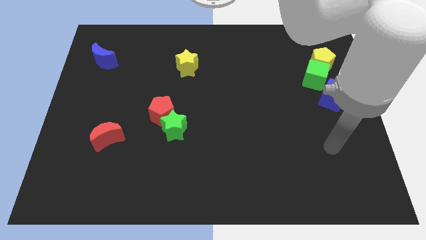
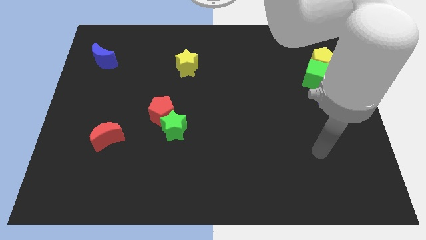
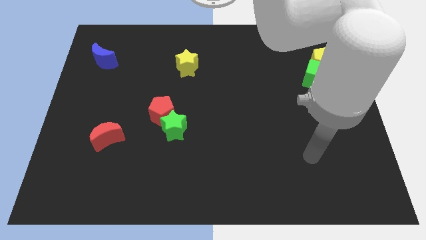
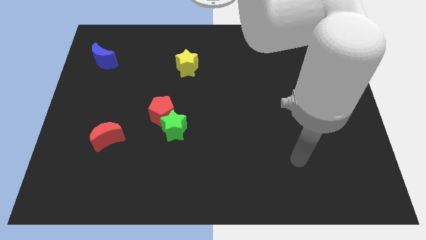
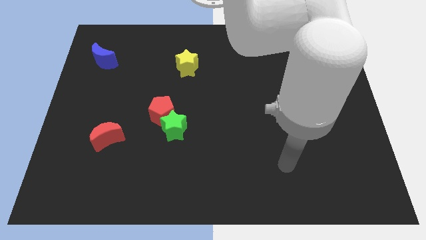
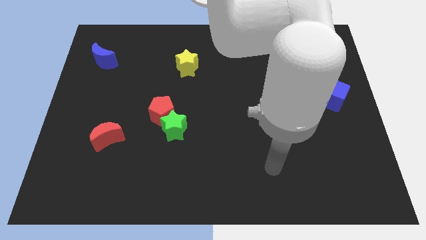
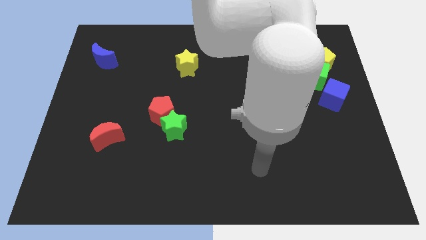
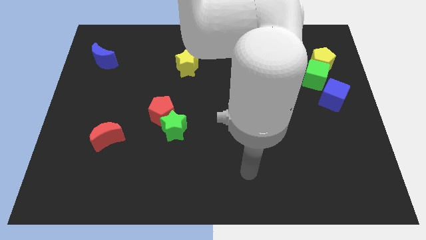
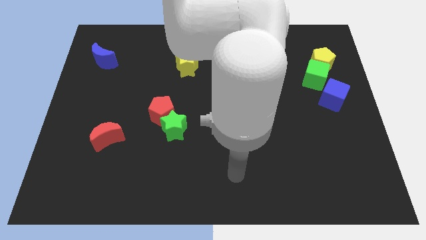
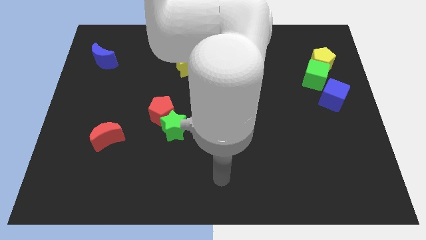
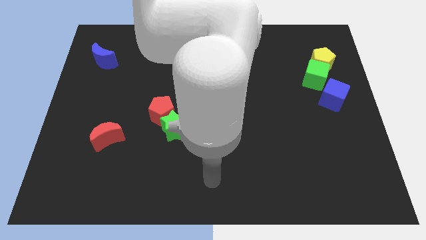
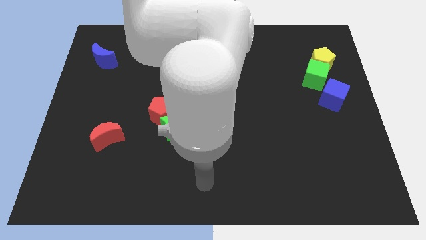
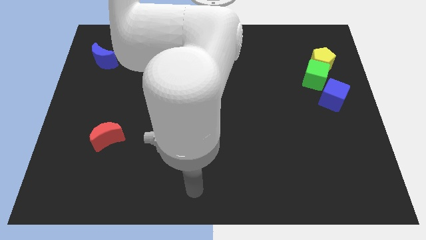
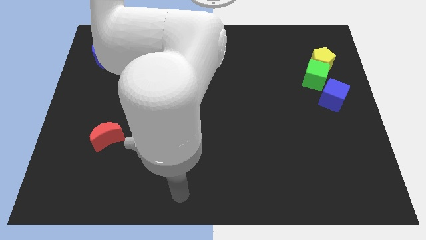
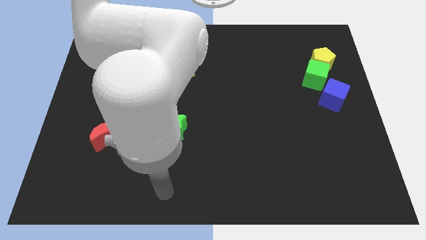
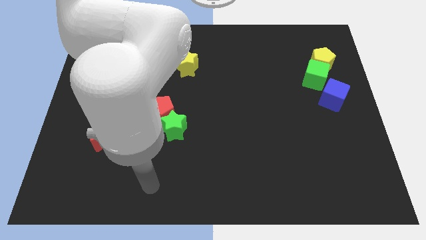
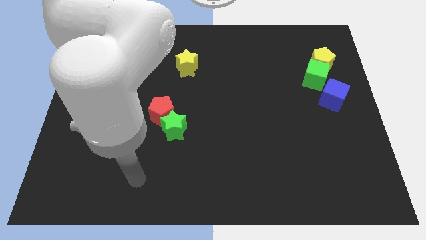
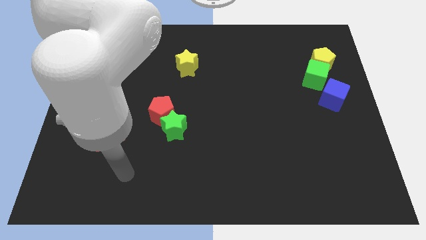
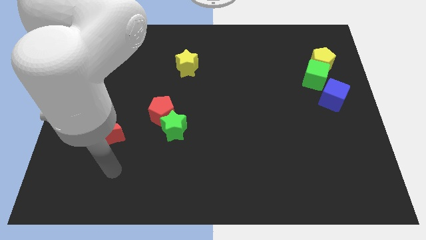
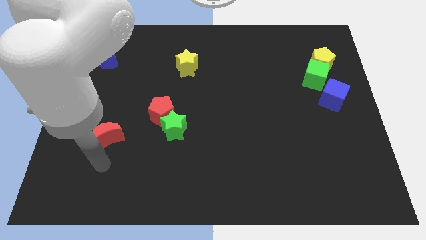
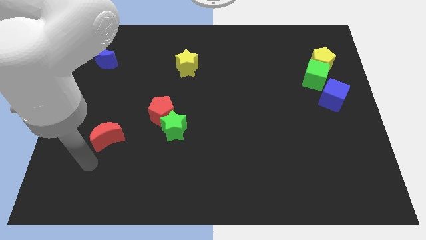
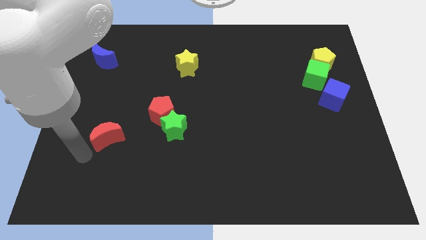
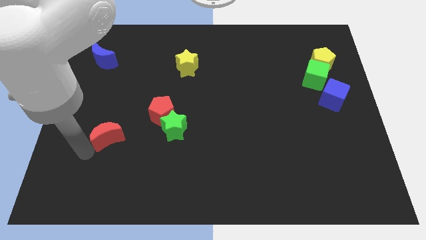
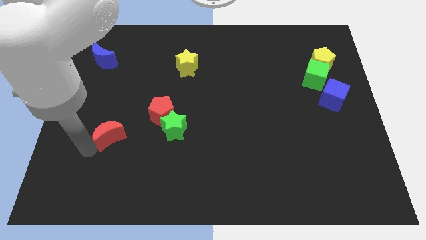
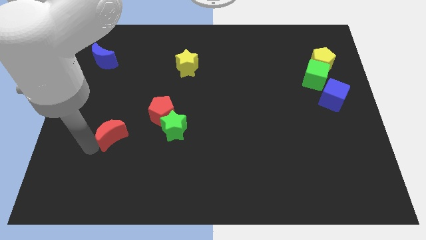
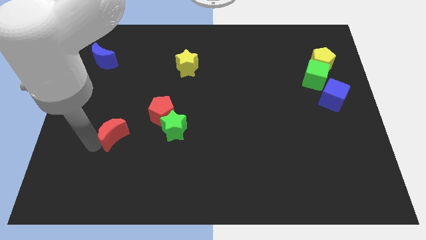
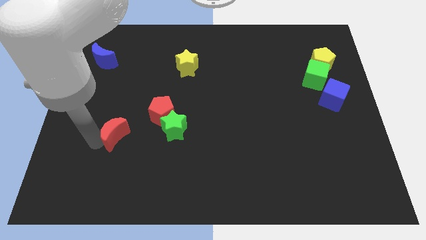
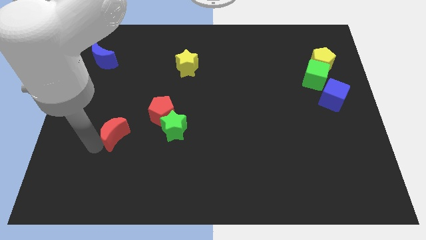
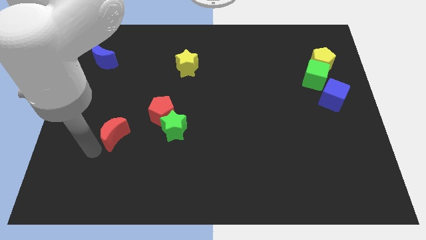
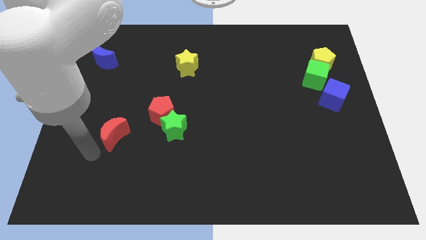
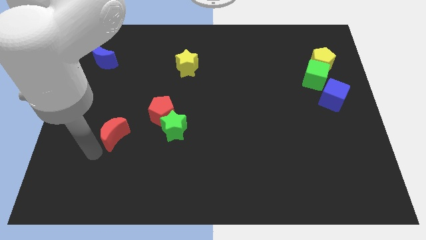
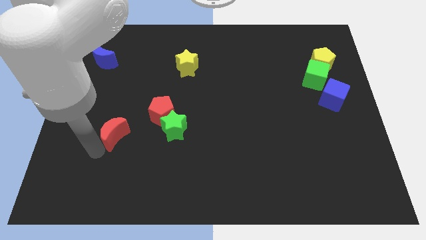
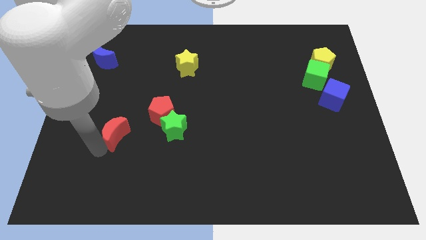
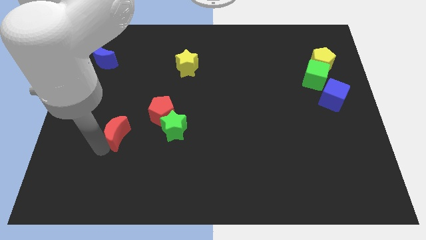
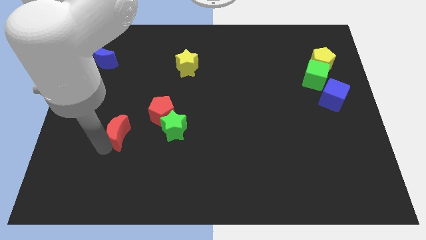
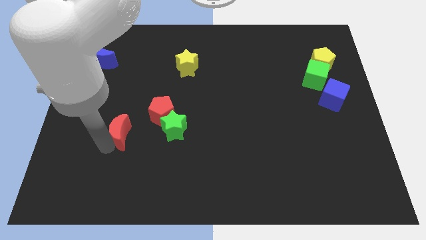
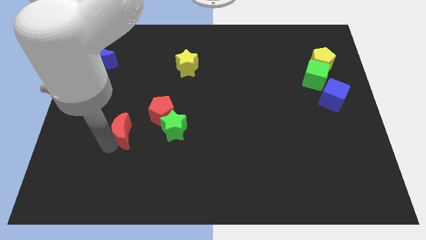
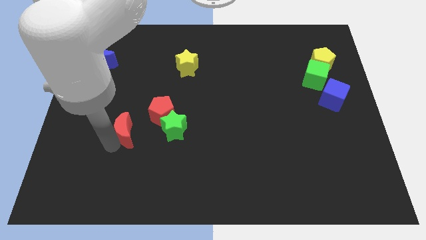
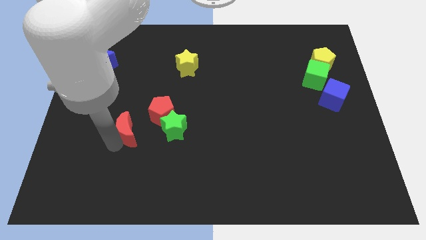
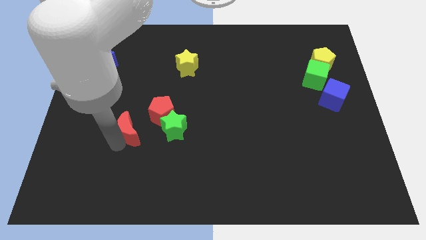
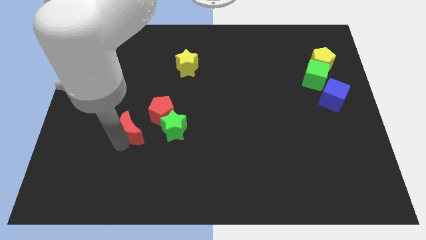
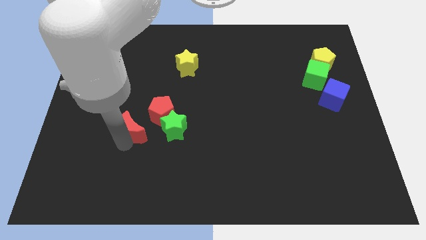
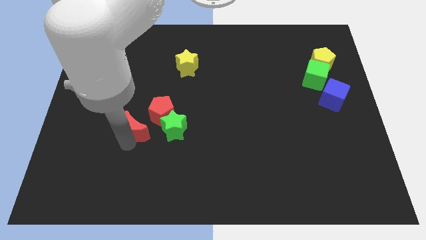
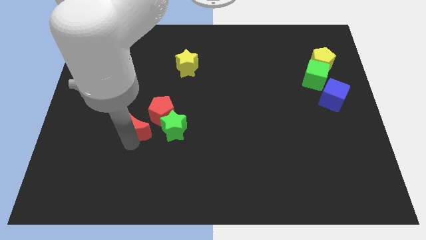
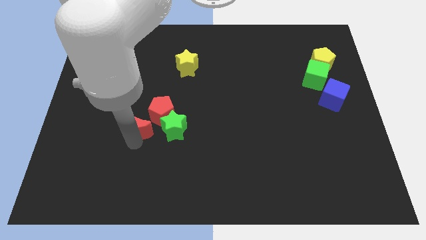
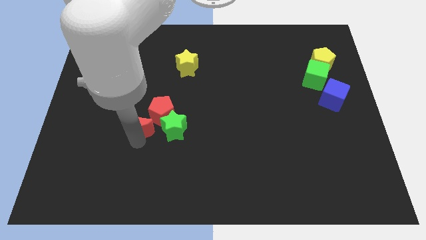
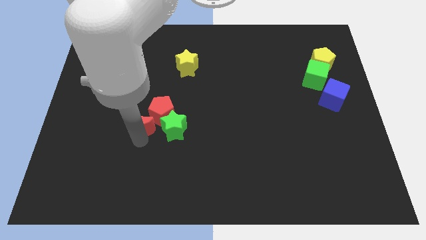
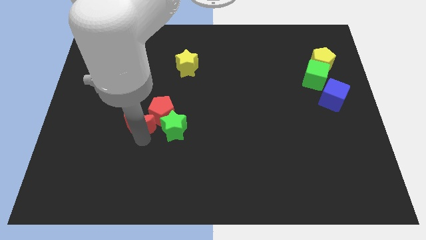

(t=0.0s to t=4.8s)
slide the red moon up and then to the right a little bit

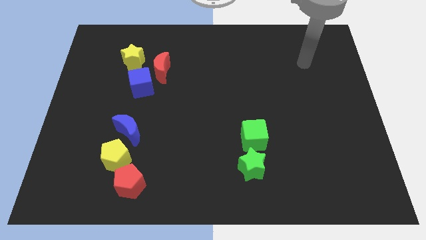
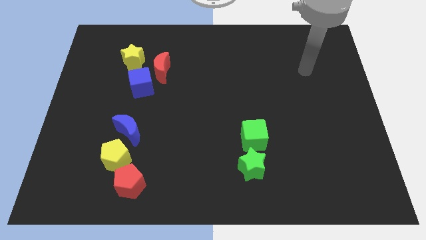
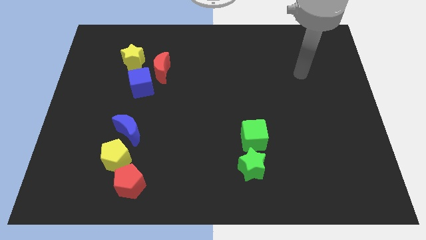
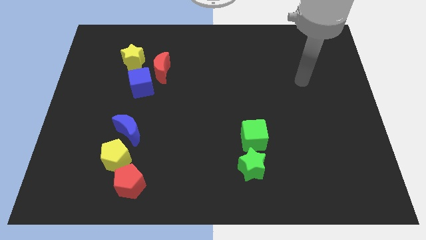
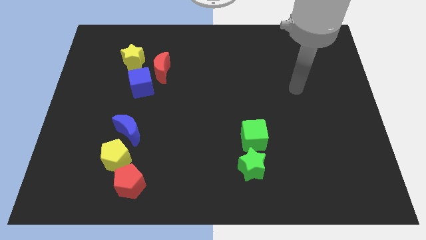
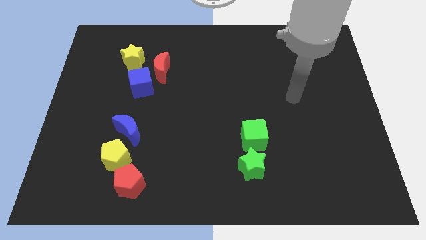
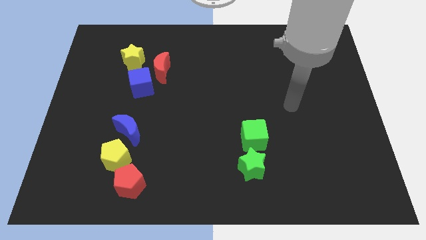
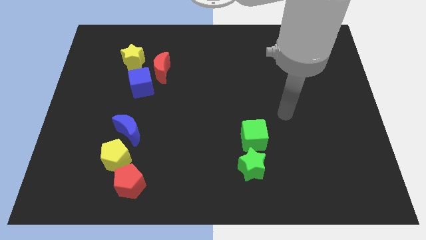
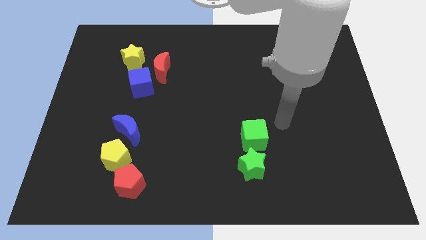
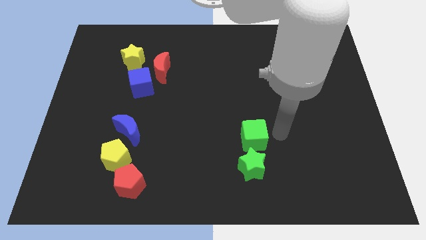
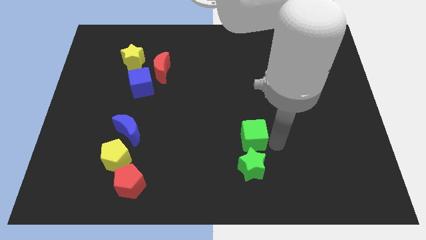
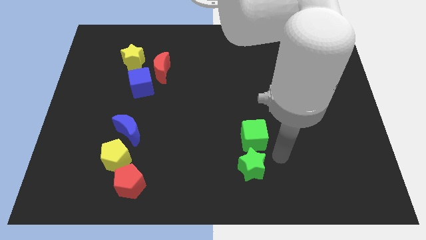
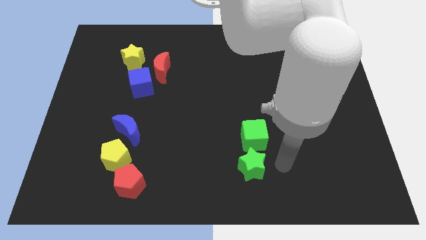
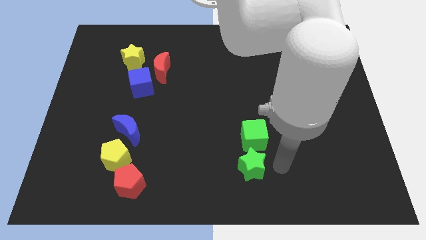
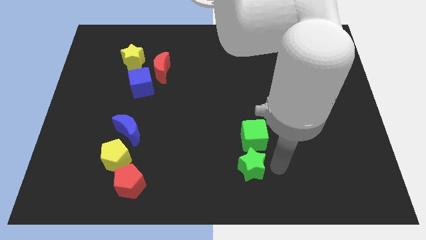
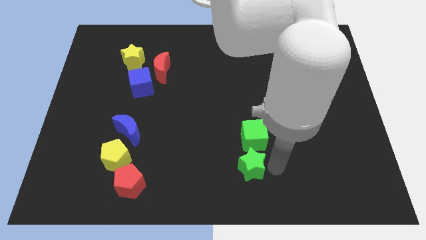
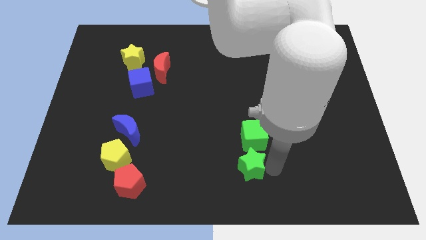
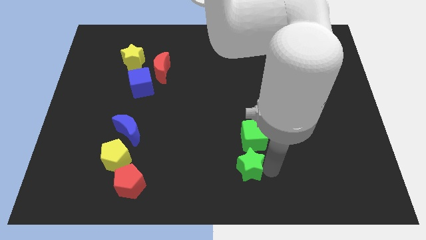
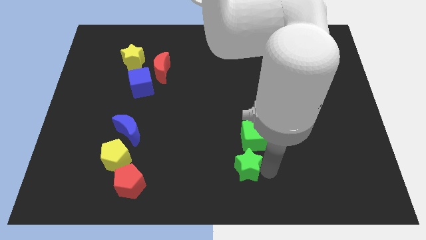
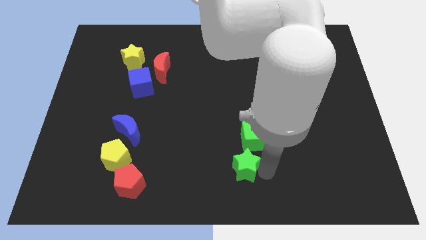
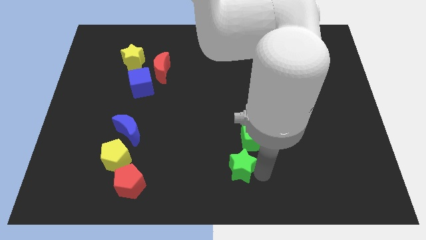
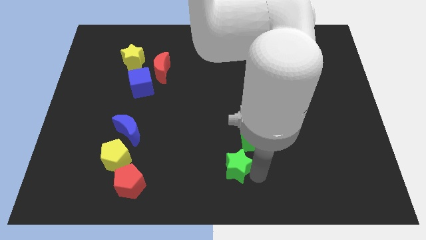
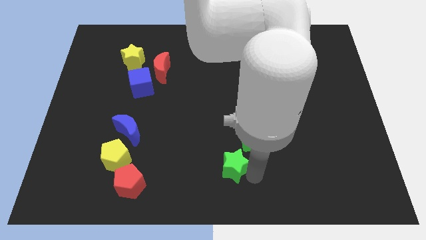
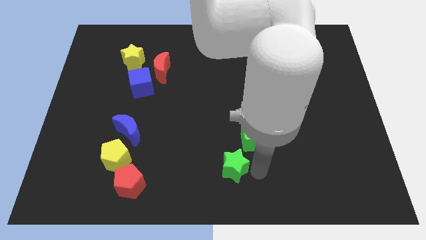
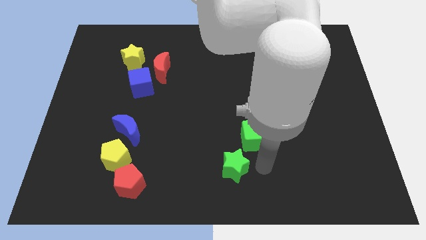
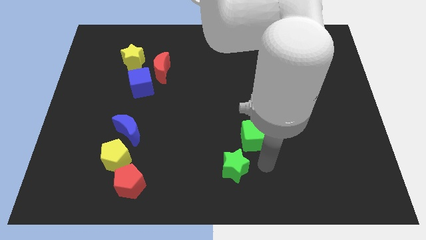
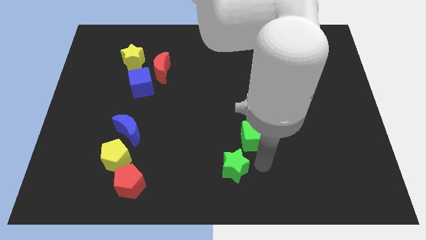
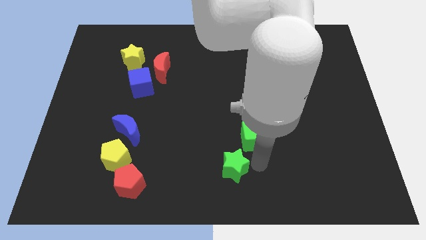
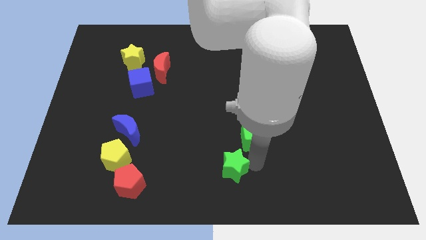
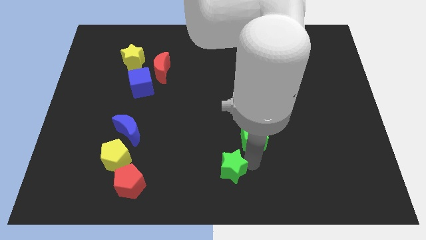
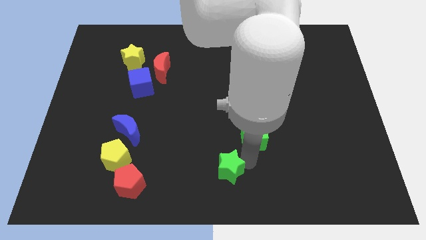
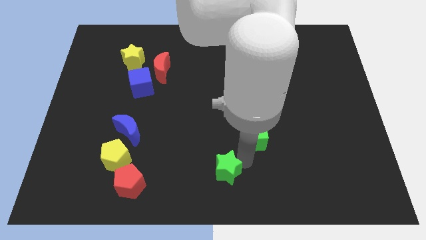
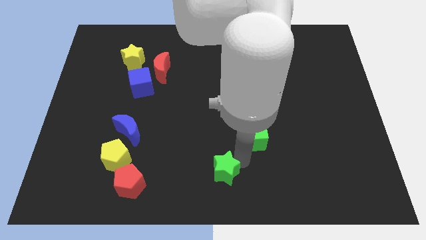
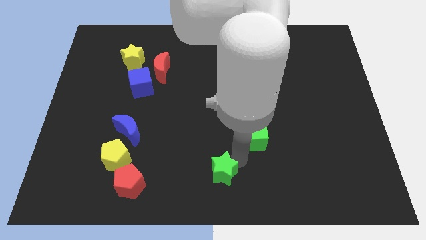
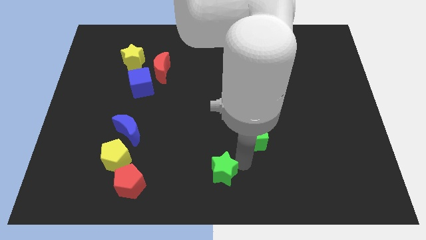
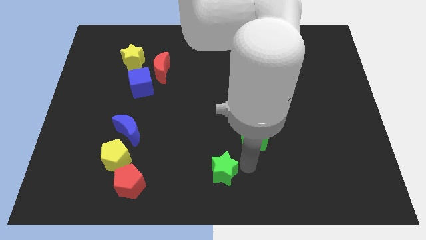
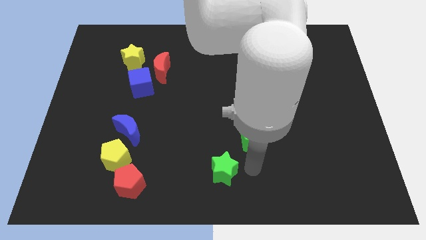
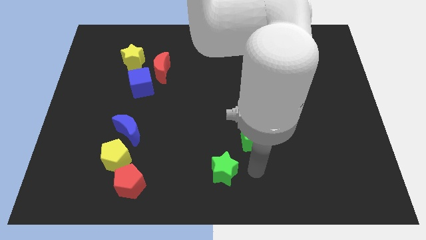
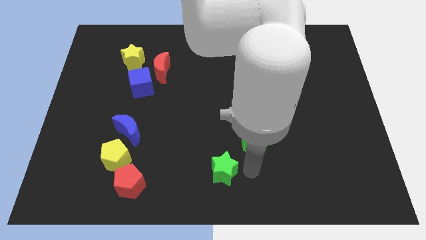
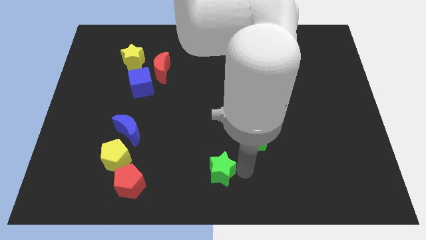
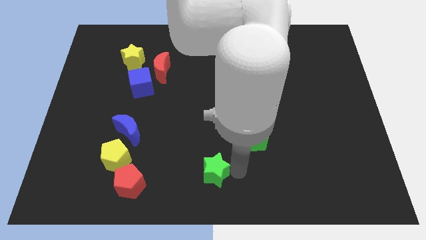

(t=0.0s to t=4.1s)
move the green star a bit left
